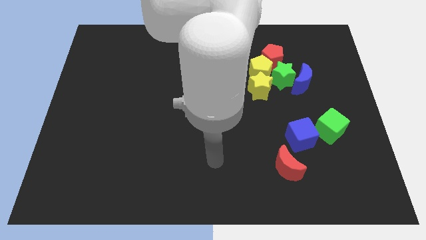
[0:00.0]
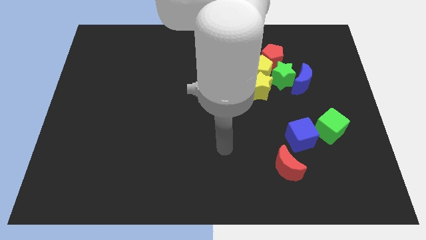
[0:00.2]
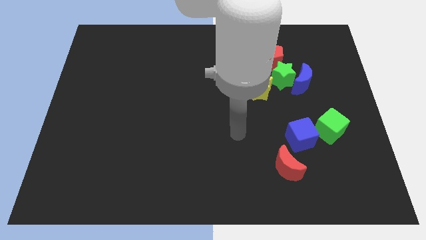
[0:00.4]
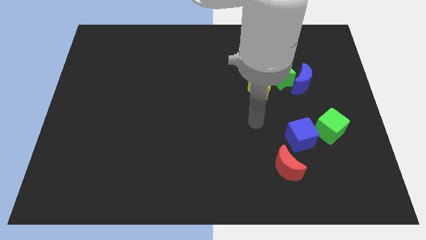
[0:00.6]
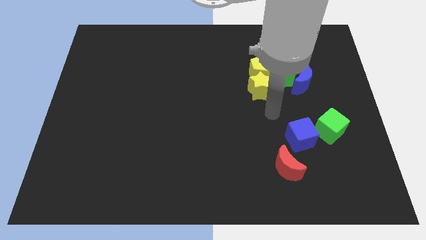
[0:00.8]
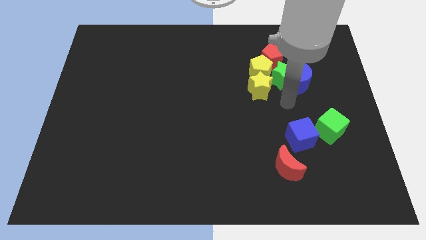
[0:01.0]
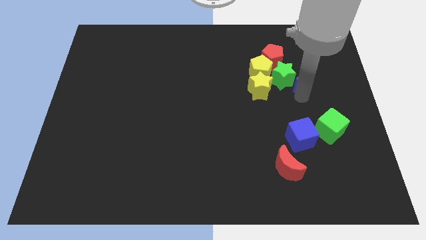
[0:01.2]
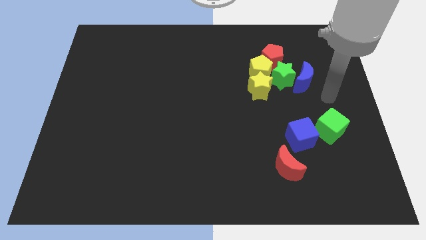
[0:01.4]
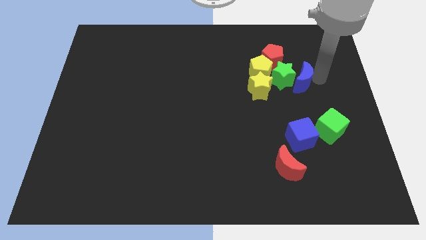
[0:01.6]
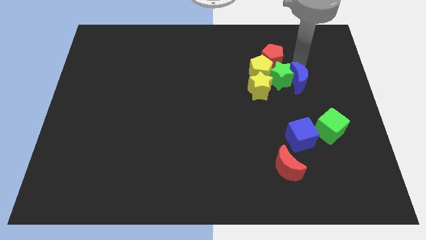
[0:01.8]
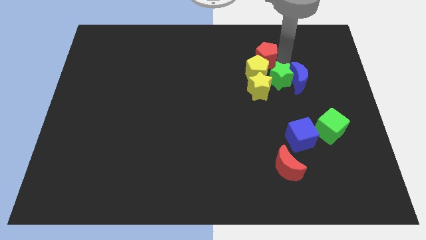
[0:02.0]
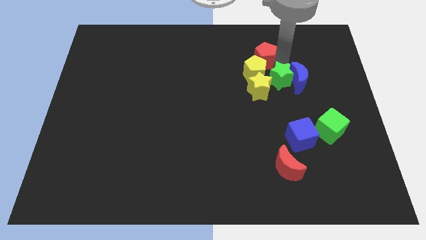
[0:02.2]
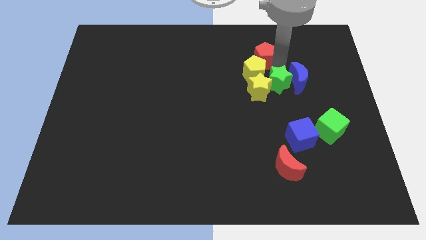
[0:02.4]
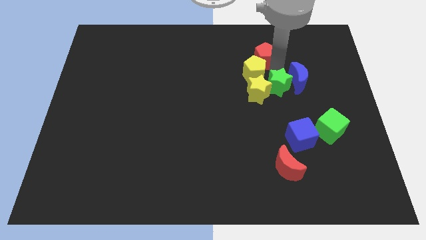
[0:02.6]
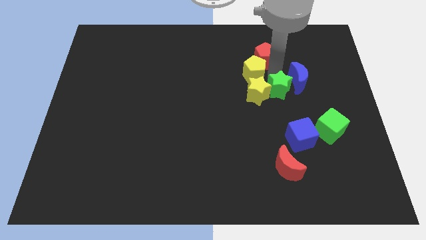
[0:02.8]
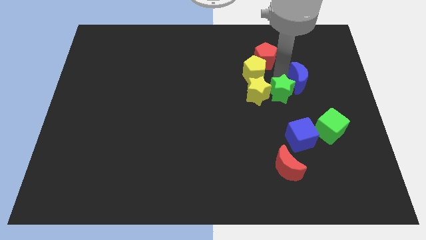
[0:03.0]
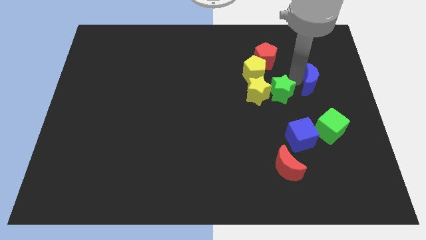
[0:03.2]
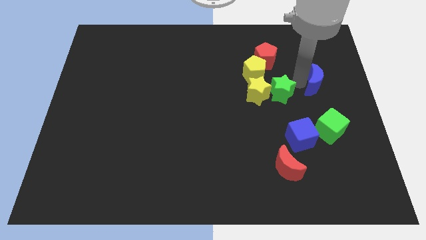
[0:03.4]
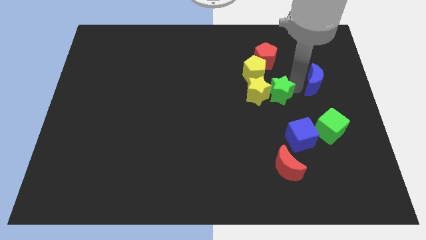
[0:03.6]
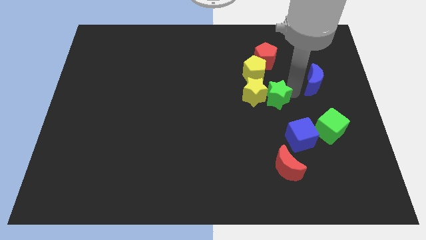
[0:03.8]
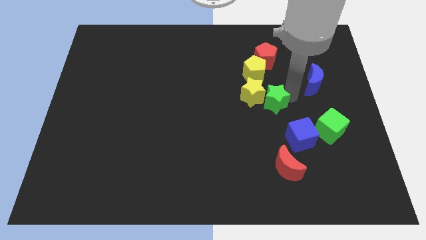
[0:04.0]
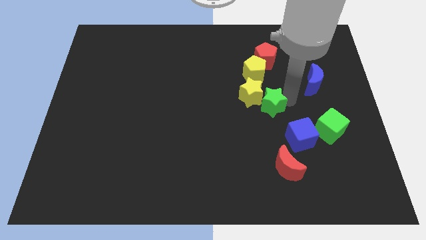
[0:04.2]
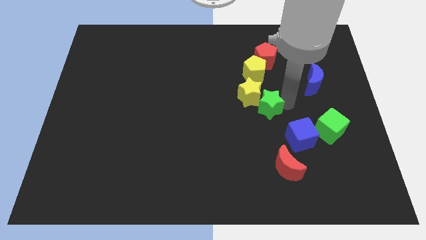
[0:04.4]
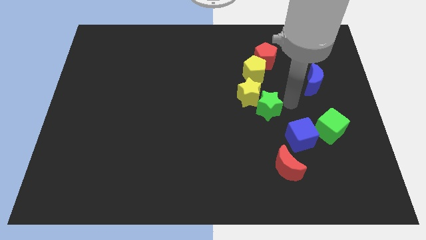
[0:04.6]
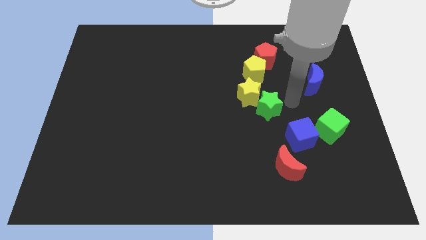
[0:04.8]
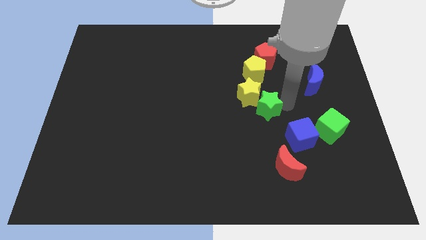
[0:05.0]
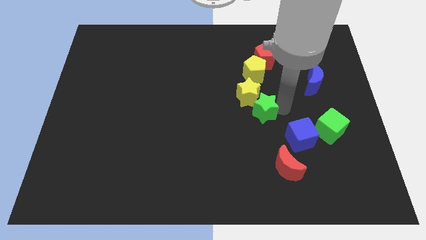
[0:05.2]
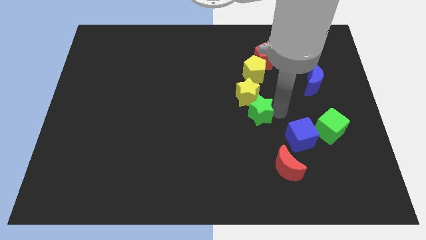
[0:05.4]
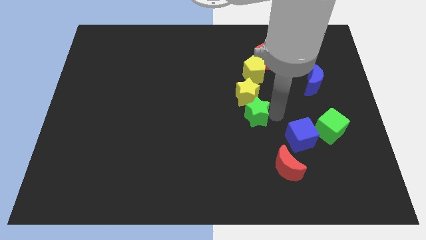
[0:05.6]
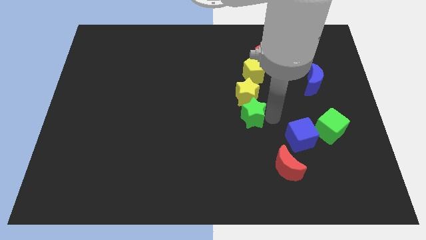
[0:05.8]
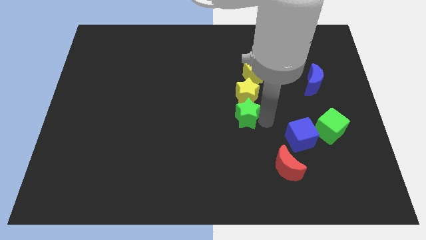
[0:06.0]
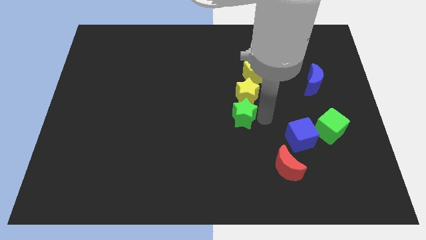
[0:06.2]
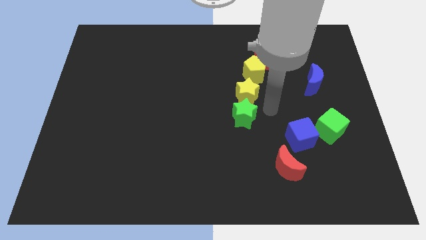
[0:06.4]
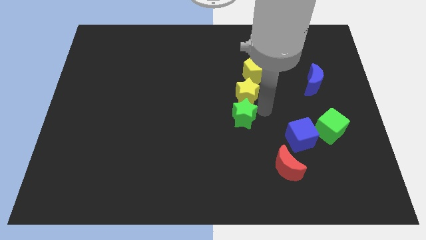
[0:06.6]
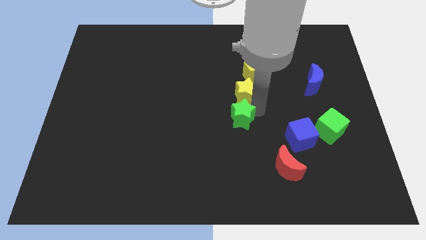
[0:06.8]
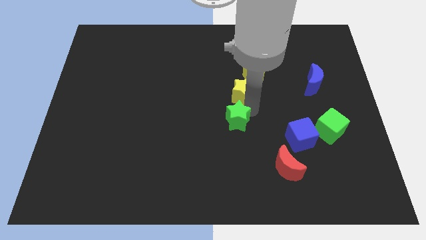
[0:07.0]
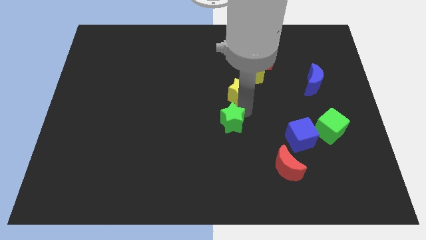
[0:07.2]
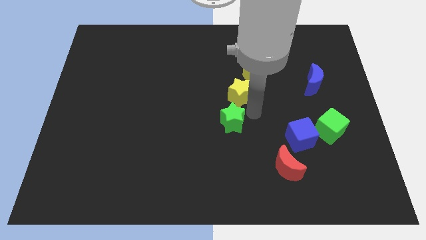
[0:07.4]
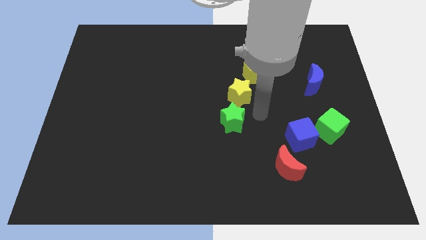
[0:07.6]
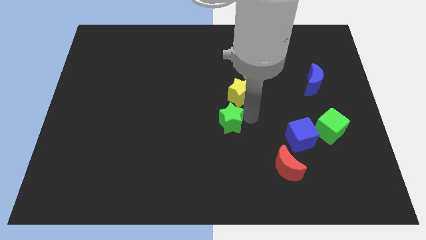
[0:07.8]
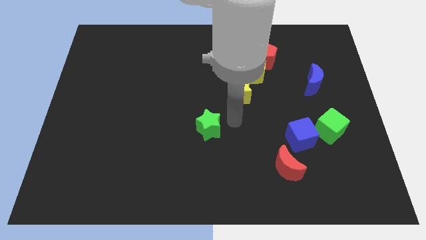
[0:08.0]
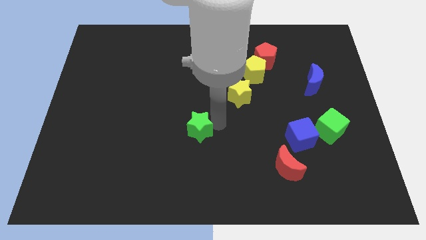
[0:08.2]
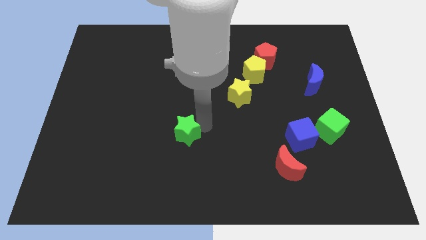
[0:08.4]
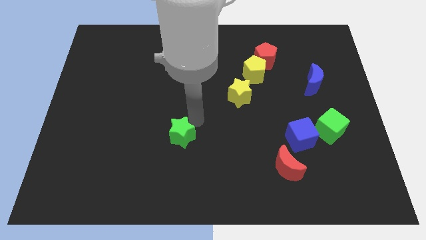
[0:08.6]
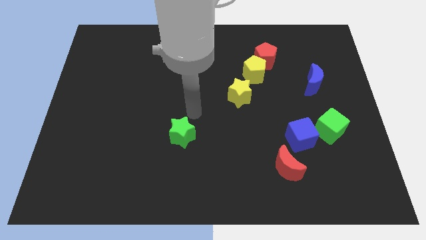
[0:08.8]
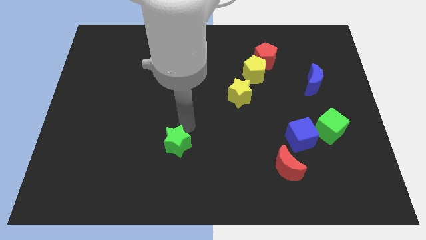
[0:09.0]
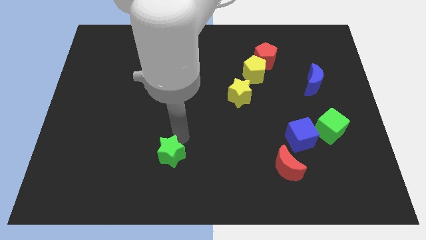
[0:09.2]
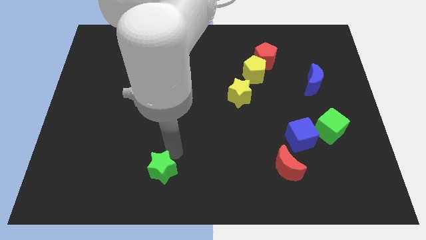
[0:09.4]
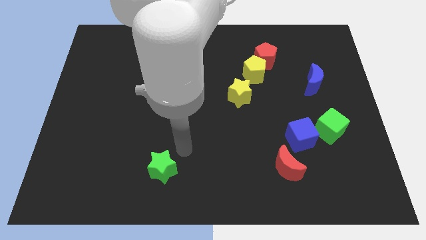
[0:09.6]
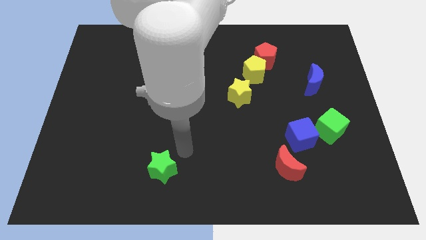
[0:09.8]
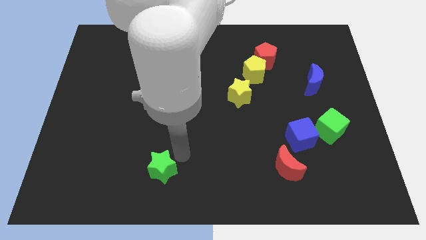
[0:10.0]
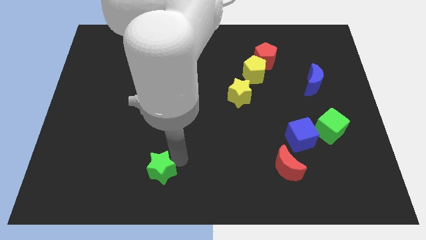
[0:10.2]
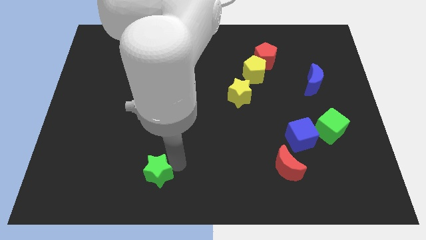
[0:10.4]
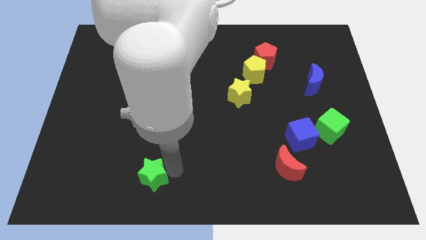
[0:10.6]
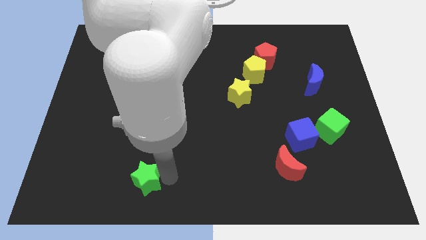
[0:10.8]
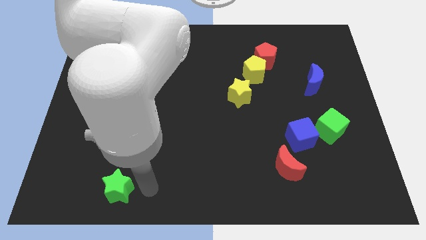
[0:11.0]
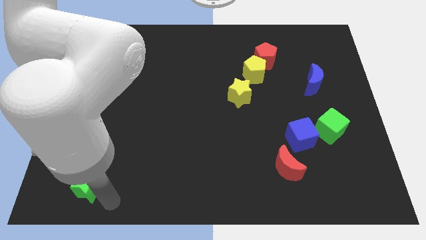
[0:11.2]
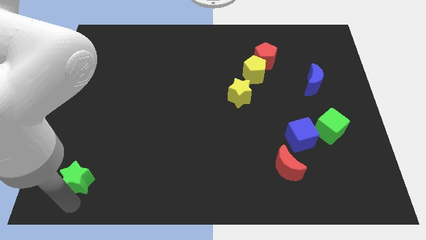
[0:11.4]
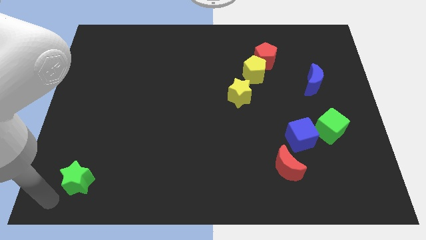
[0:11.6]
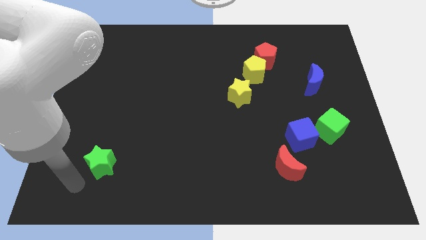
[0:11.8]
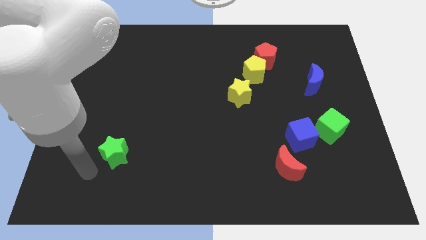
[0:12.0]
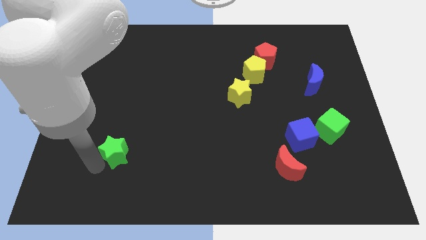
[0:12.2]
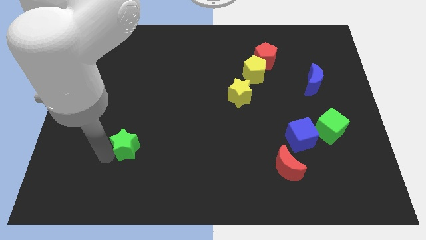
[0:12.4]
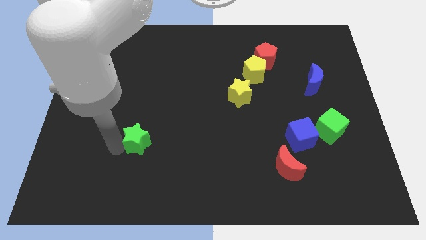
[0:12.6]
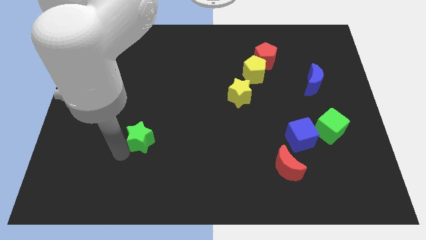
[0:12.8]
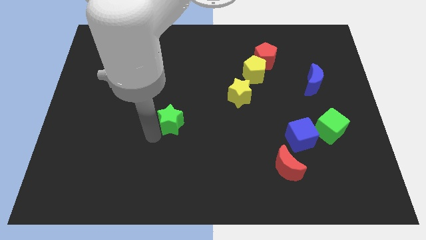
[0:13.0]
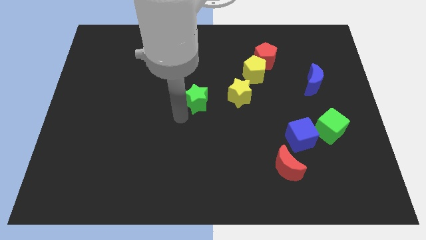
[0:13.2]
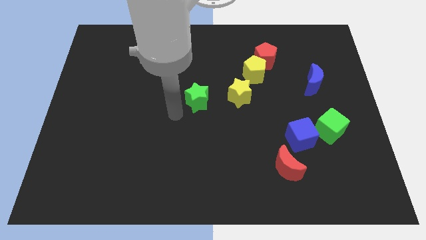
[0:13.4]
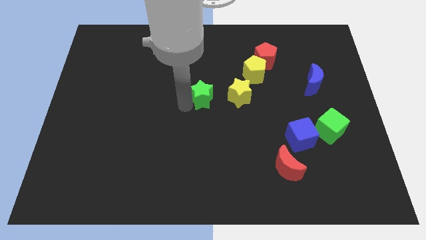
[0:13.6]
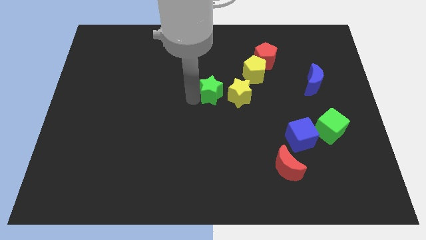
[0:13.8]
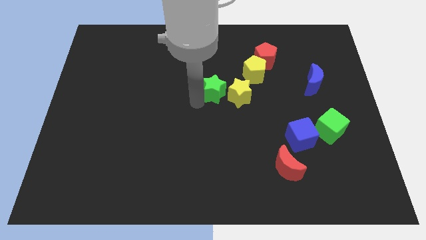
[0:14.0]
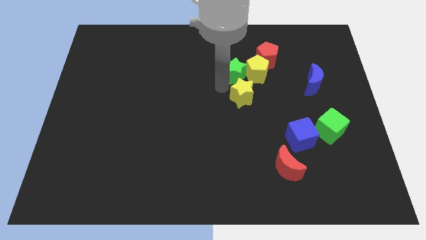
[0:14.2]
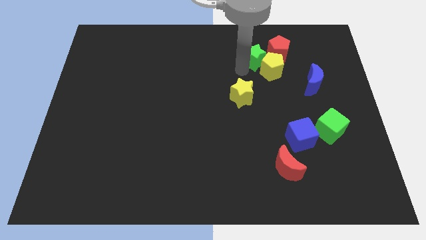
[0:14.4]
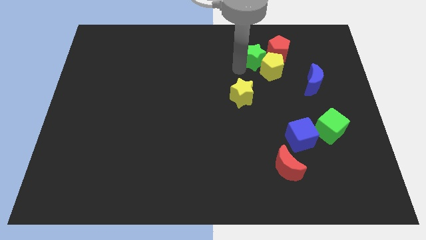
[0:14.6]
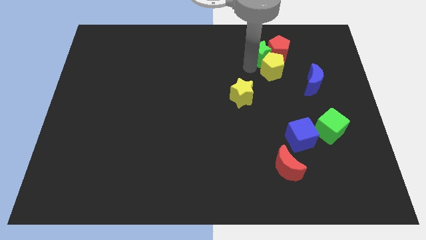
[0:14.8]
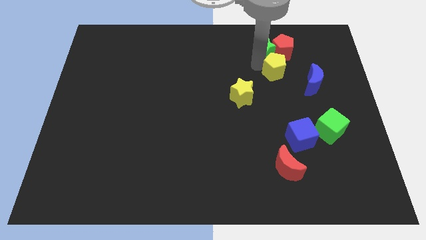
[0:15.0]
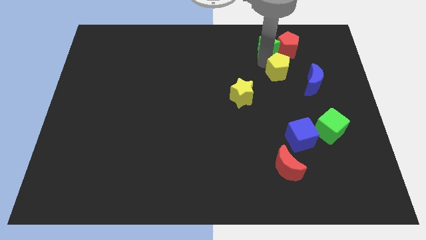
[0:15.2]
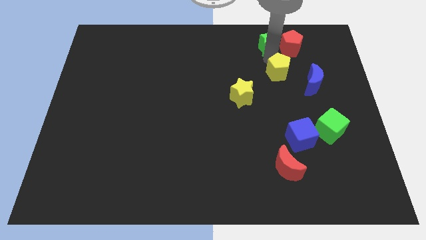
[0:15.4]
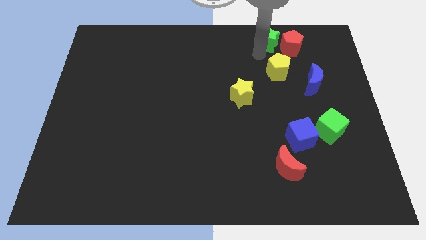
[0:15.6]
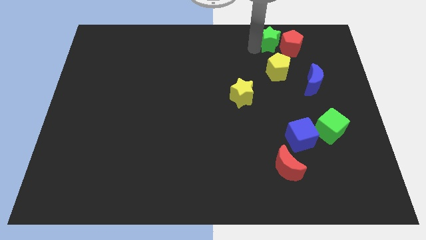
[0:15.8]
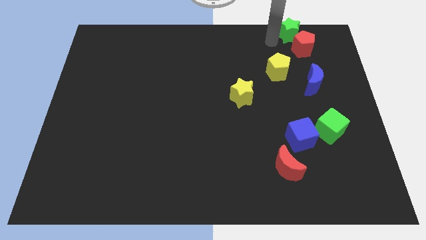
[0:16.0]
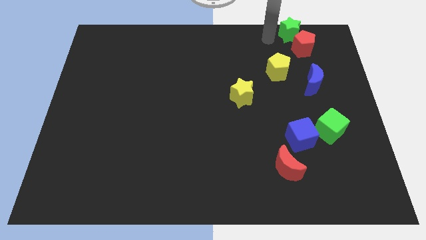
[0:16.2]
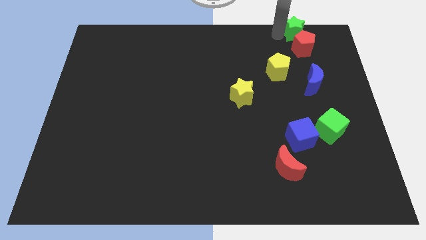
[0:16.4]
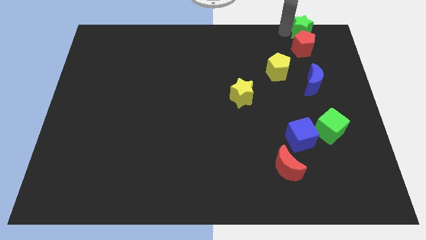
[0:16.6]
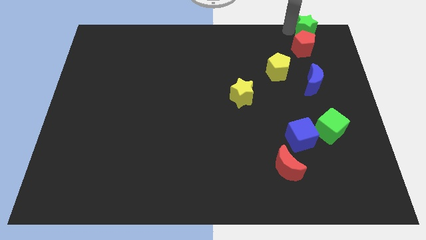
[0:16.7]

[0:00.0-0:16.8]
slide the green star to the top right of the board
